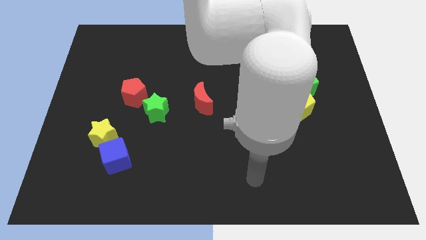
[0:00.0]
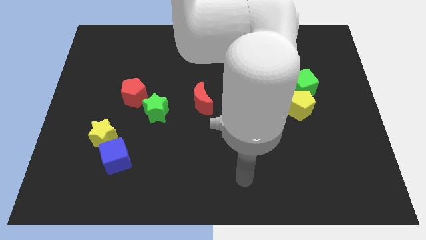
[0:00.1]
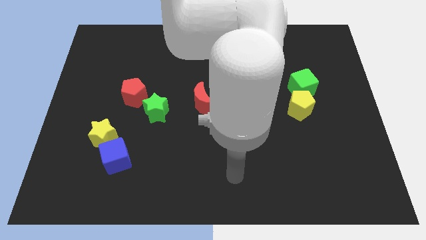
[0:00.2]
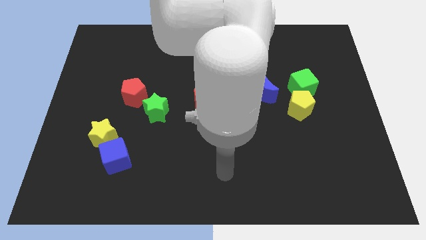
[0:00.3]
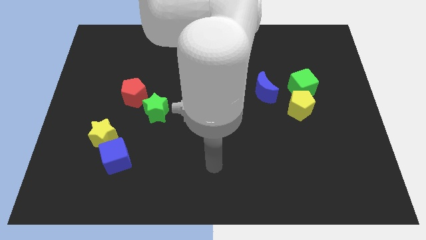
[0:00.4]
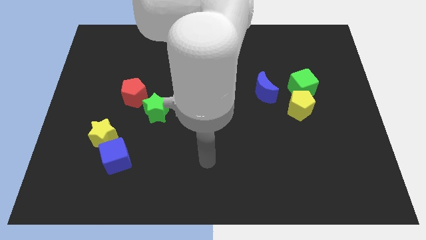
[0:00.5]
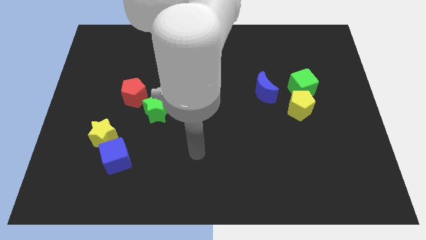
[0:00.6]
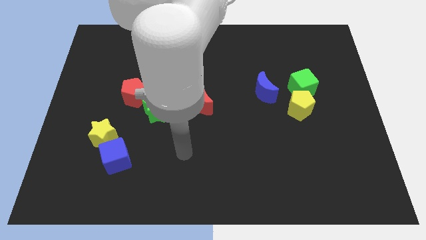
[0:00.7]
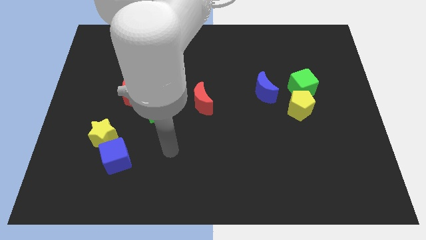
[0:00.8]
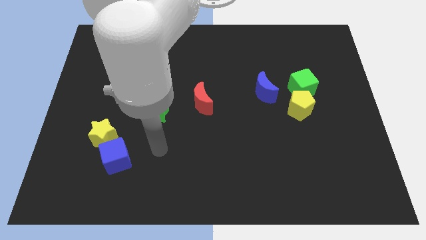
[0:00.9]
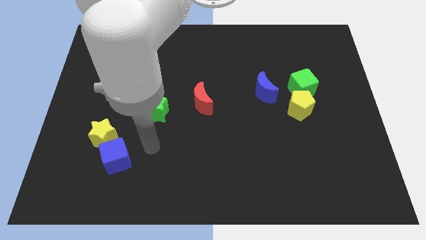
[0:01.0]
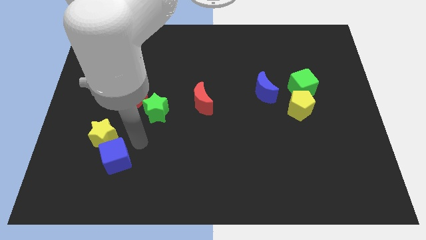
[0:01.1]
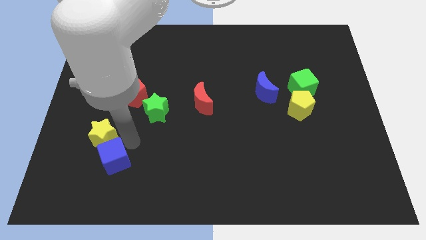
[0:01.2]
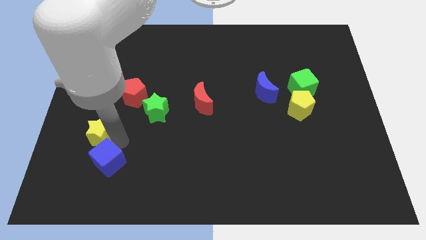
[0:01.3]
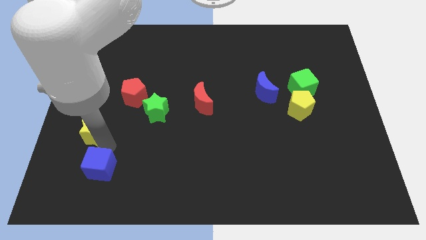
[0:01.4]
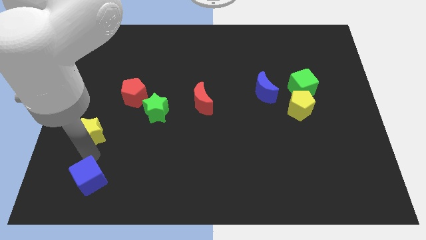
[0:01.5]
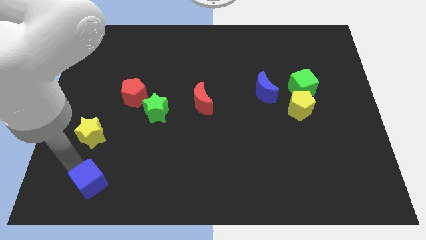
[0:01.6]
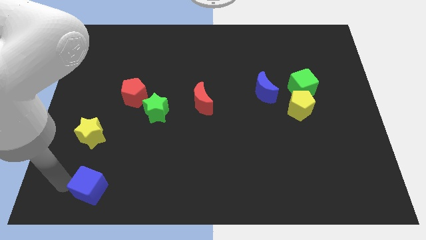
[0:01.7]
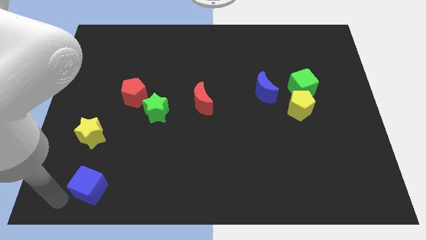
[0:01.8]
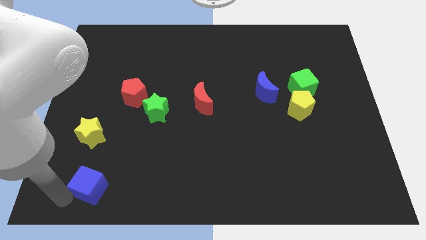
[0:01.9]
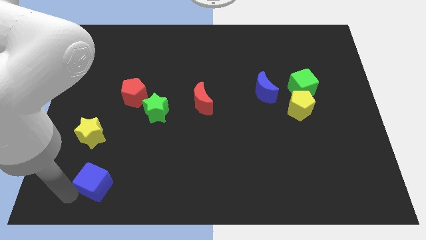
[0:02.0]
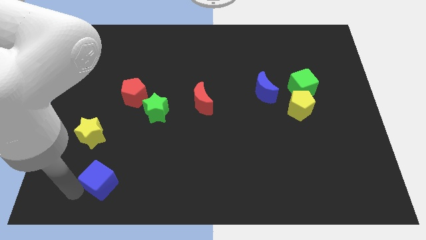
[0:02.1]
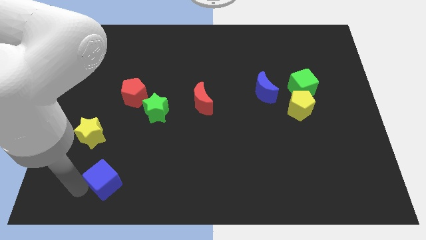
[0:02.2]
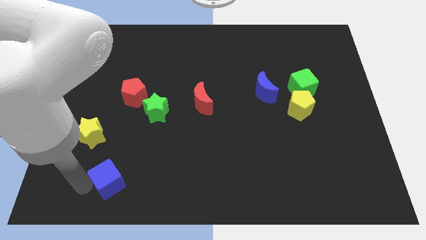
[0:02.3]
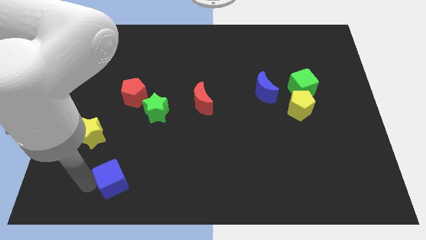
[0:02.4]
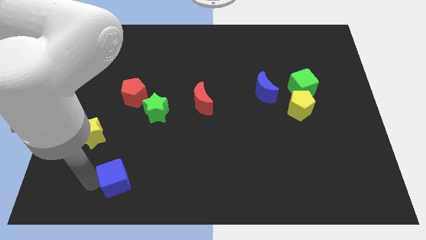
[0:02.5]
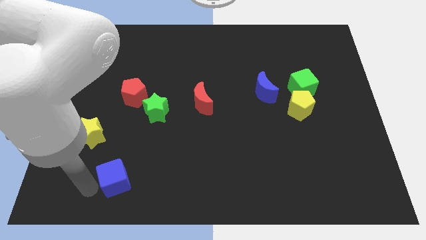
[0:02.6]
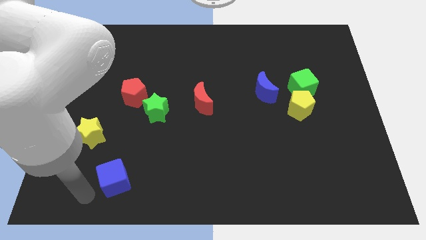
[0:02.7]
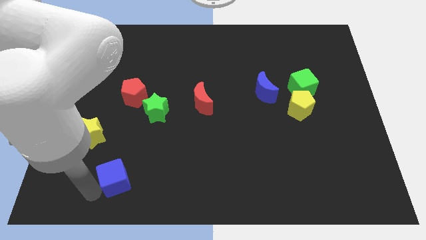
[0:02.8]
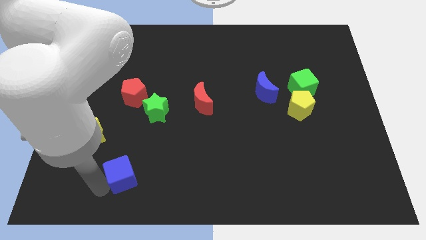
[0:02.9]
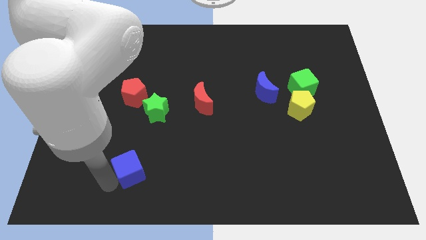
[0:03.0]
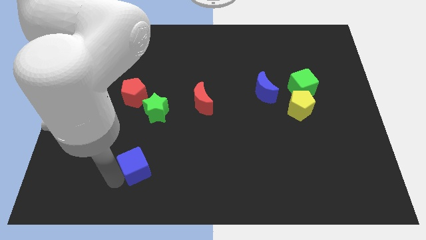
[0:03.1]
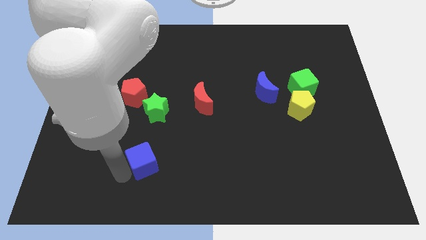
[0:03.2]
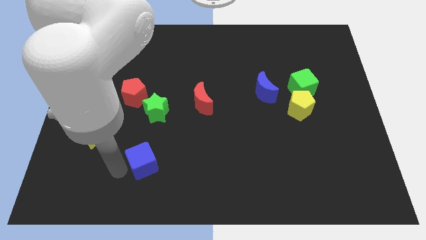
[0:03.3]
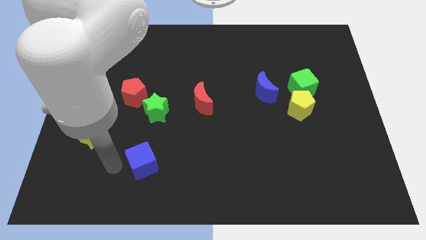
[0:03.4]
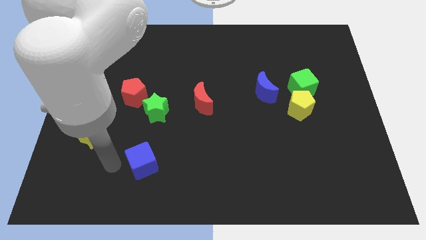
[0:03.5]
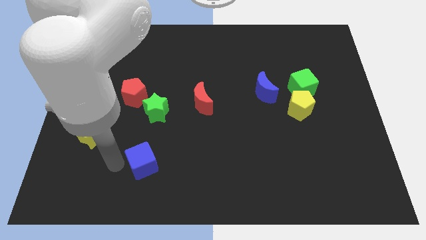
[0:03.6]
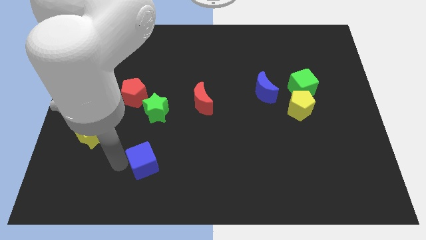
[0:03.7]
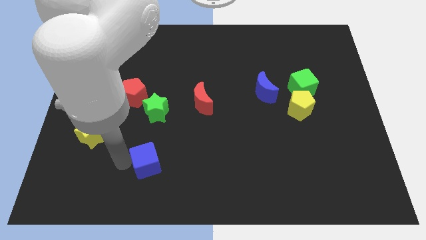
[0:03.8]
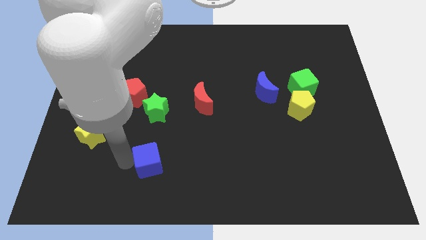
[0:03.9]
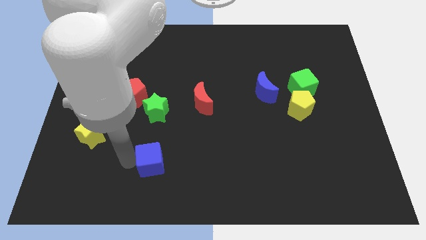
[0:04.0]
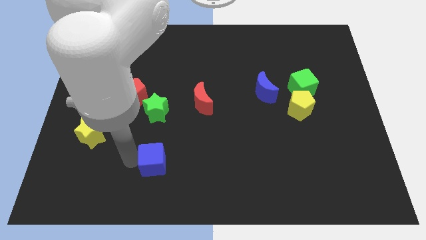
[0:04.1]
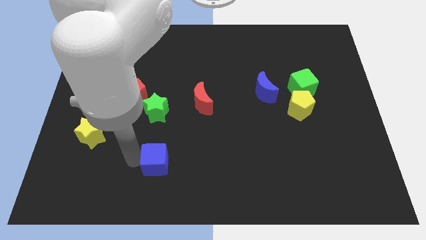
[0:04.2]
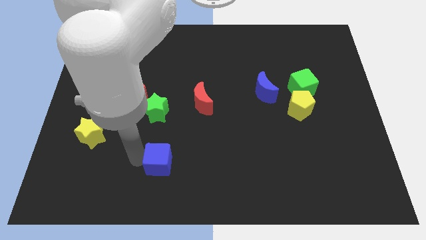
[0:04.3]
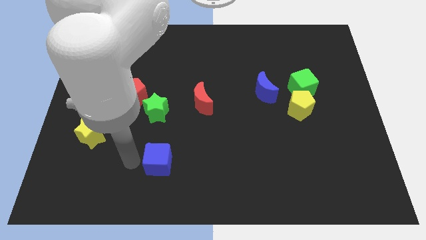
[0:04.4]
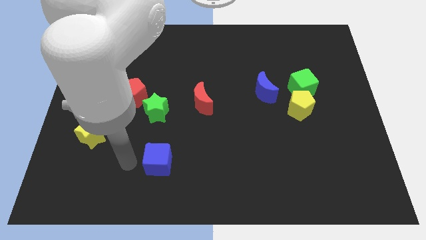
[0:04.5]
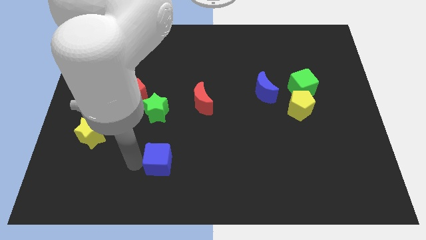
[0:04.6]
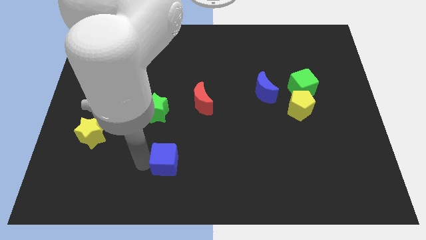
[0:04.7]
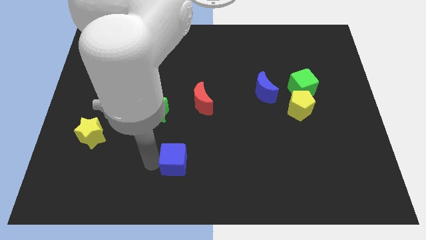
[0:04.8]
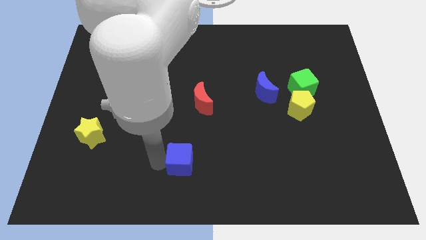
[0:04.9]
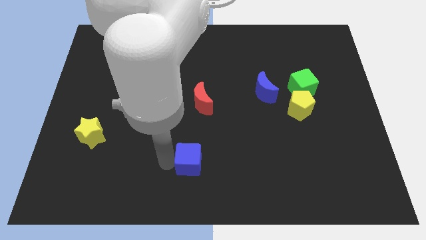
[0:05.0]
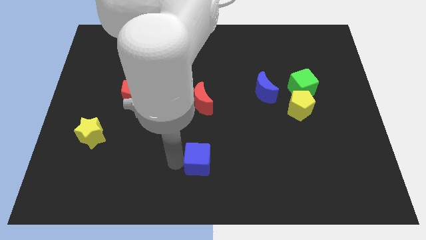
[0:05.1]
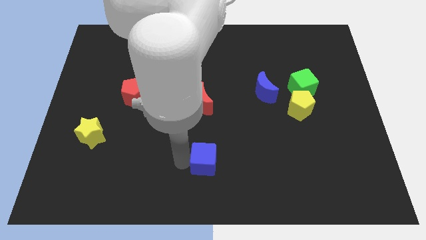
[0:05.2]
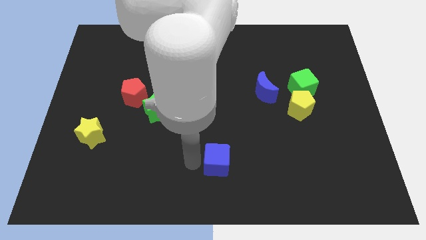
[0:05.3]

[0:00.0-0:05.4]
push the blue cube right

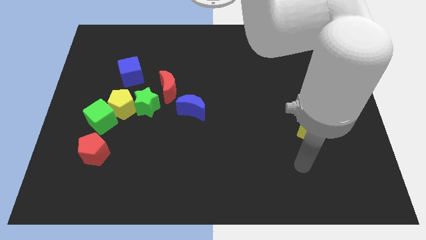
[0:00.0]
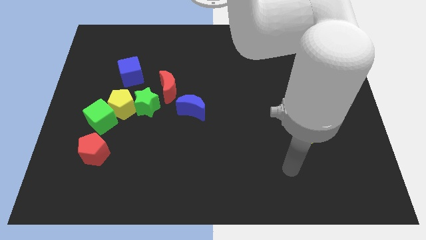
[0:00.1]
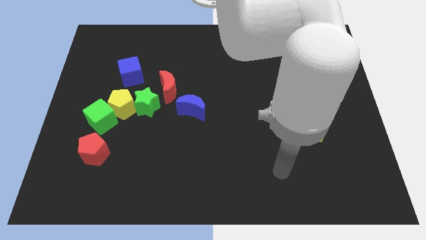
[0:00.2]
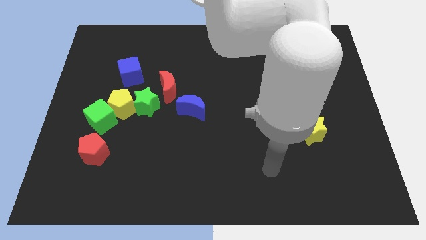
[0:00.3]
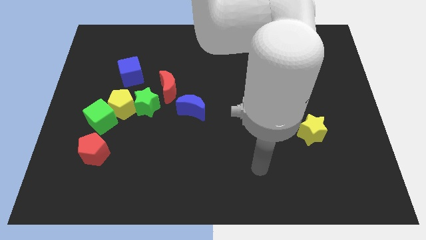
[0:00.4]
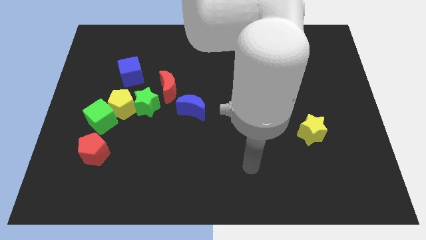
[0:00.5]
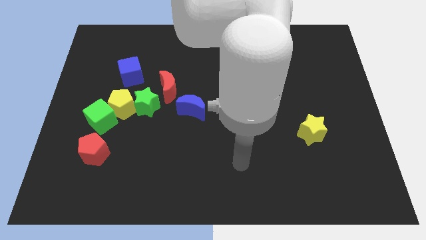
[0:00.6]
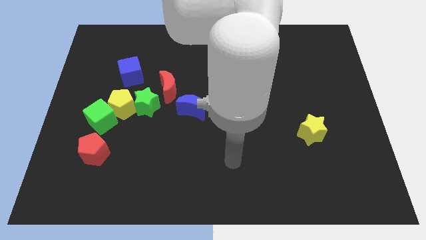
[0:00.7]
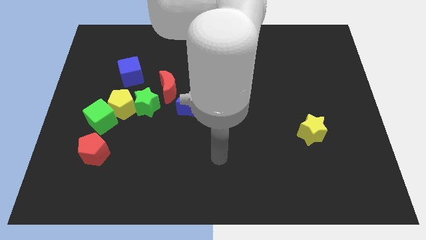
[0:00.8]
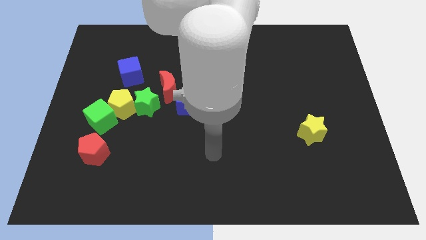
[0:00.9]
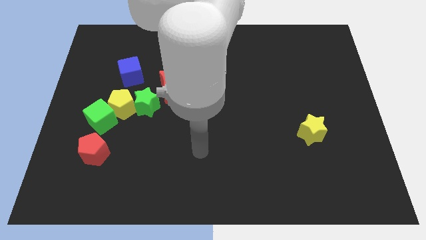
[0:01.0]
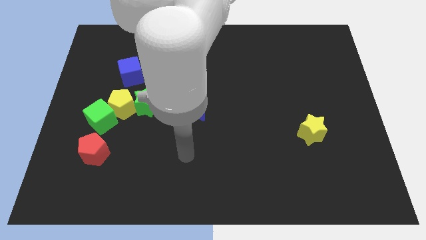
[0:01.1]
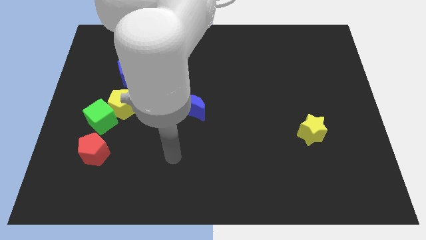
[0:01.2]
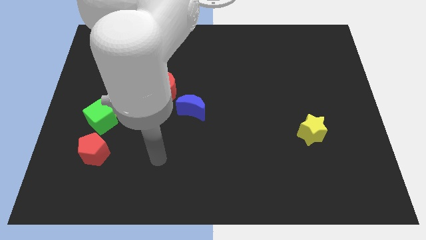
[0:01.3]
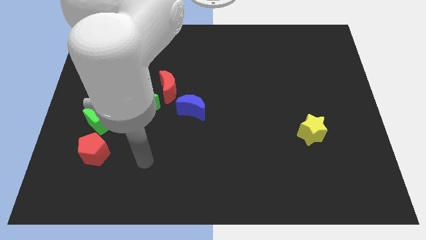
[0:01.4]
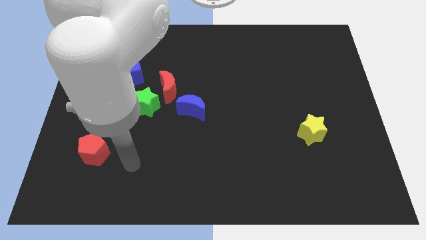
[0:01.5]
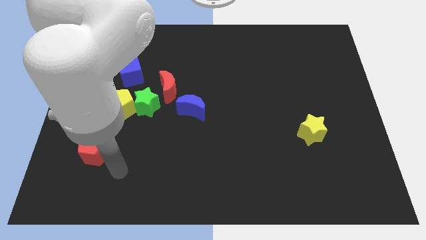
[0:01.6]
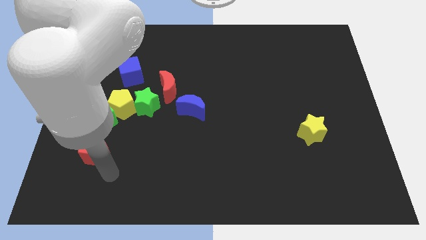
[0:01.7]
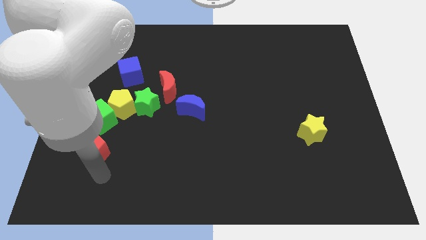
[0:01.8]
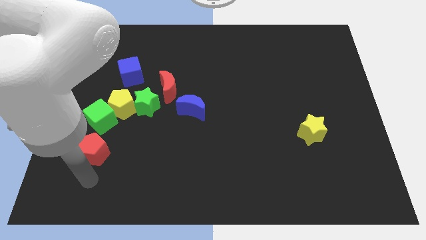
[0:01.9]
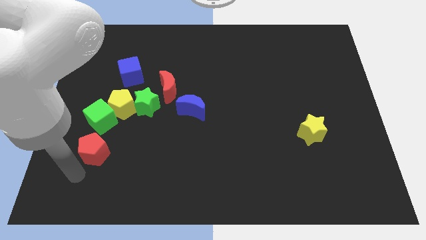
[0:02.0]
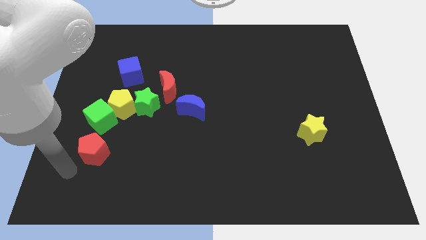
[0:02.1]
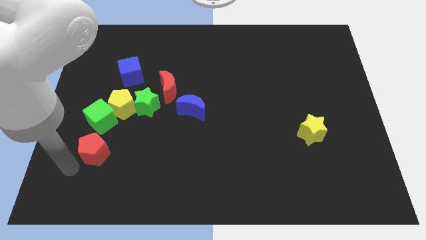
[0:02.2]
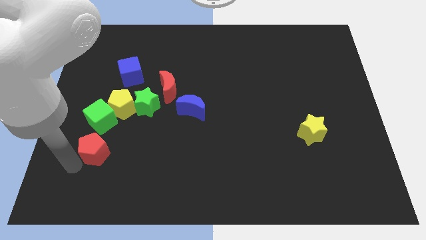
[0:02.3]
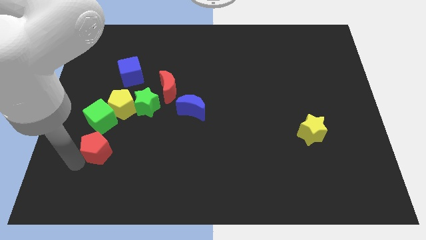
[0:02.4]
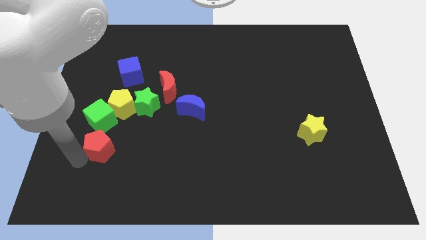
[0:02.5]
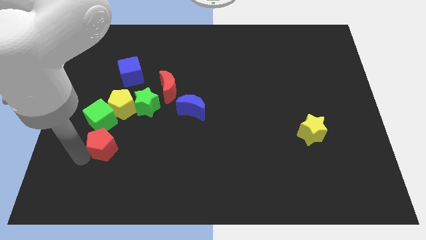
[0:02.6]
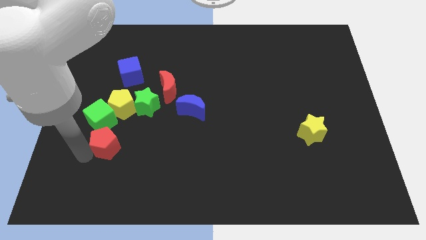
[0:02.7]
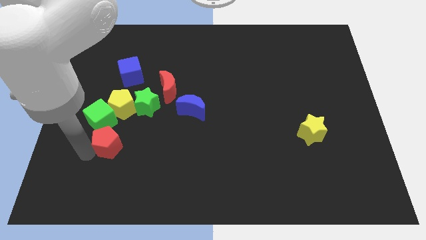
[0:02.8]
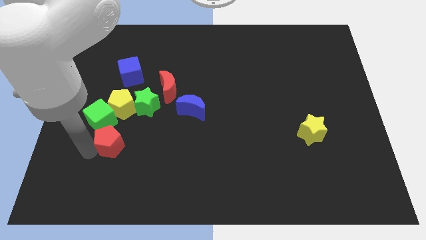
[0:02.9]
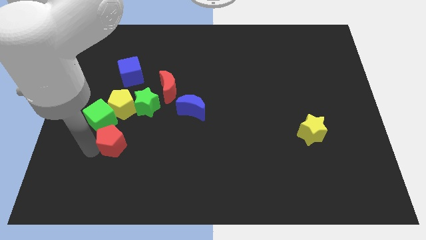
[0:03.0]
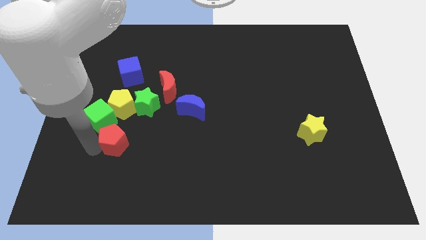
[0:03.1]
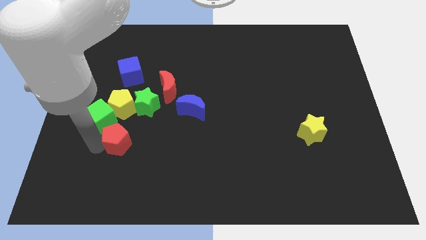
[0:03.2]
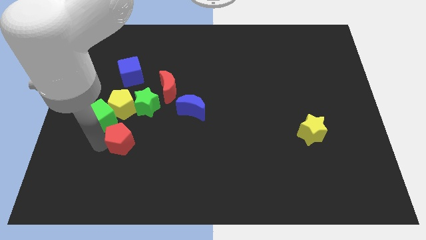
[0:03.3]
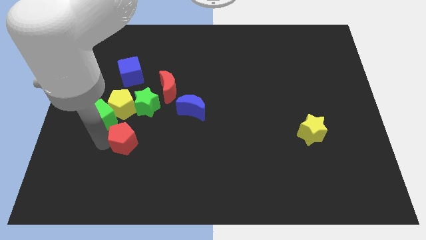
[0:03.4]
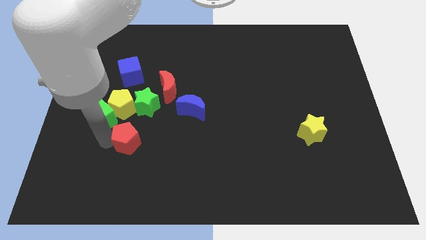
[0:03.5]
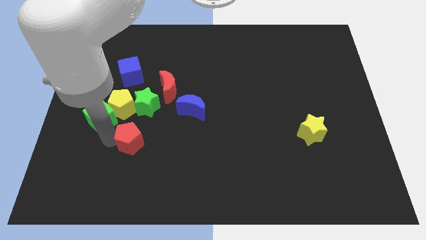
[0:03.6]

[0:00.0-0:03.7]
slightly push the red pentagon upwards and right diagonally
